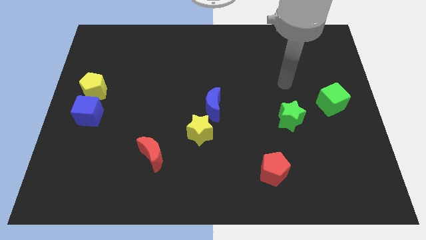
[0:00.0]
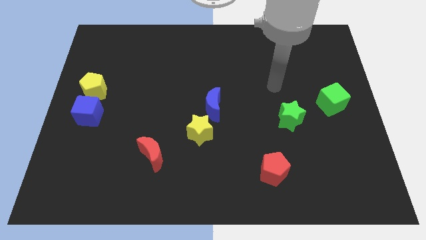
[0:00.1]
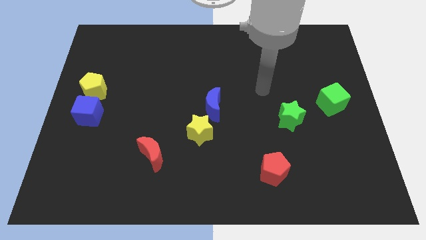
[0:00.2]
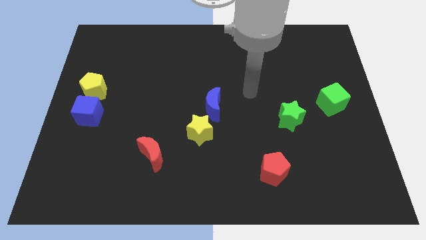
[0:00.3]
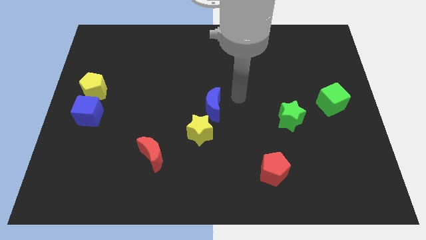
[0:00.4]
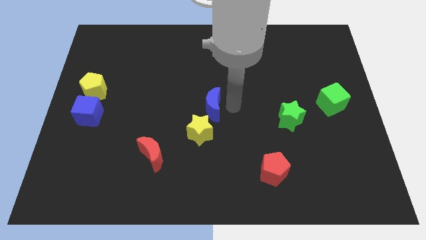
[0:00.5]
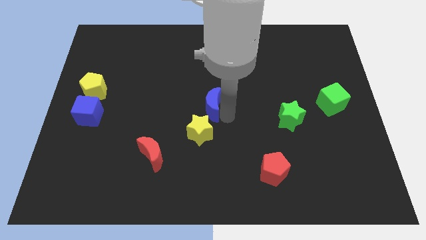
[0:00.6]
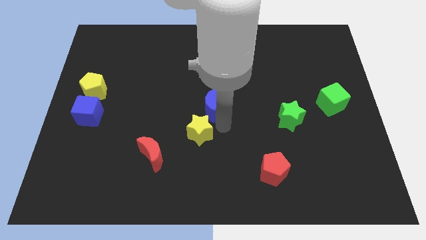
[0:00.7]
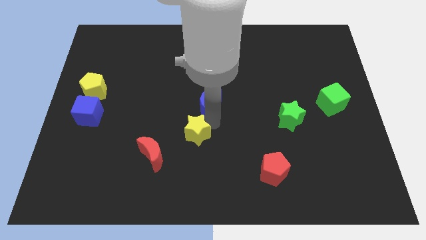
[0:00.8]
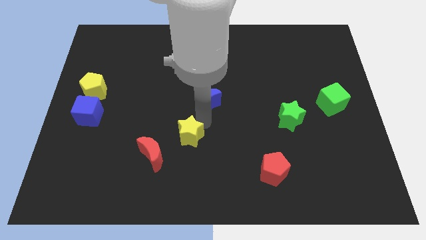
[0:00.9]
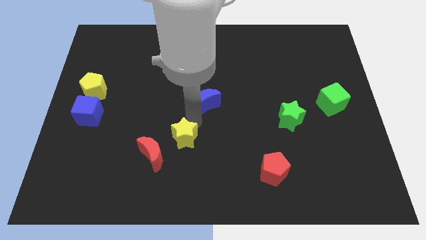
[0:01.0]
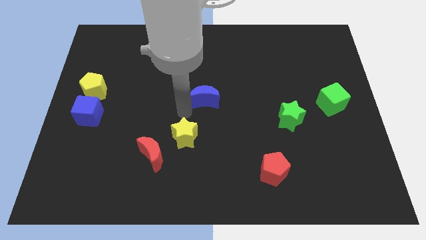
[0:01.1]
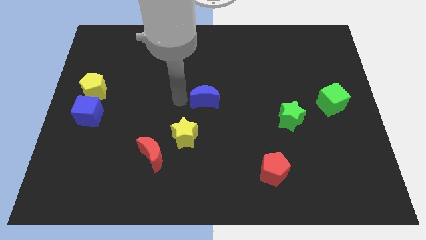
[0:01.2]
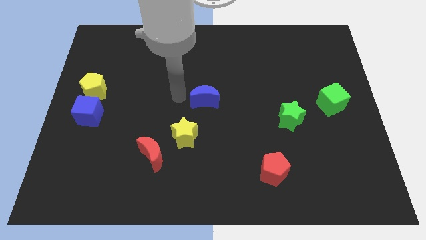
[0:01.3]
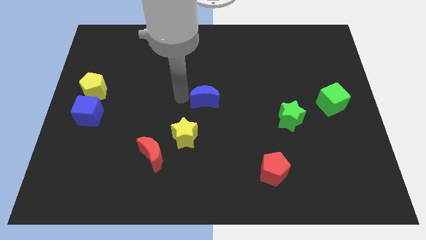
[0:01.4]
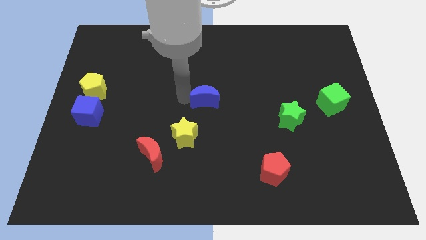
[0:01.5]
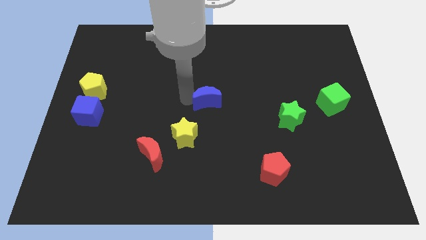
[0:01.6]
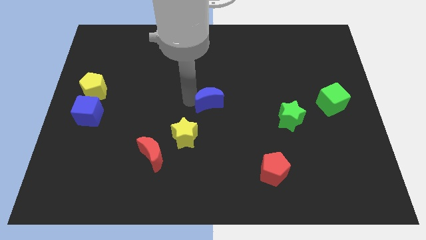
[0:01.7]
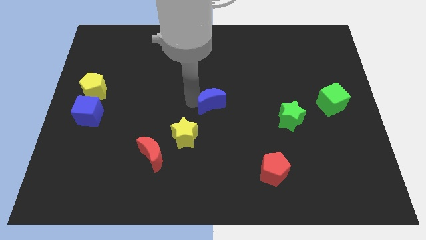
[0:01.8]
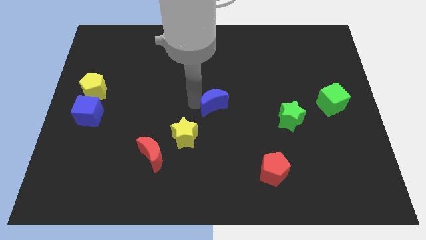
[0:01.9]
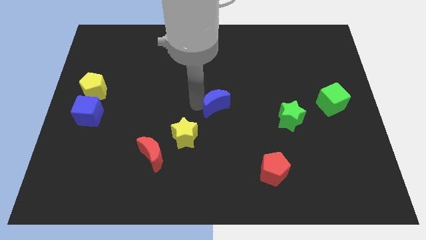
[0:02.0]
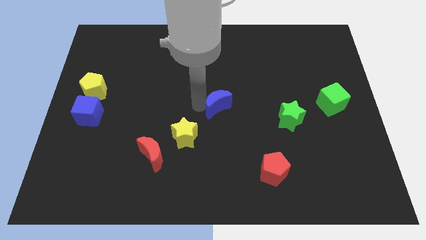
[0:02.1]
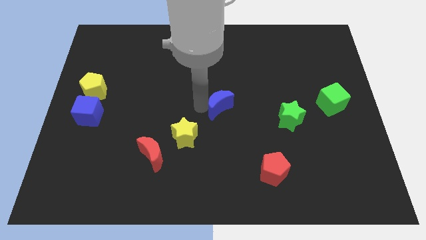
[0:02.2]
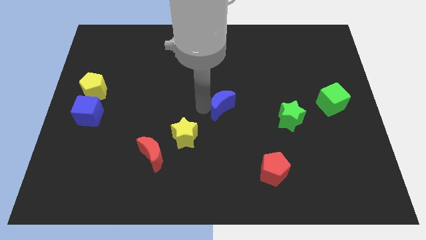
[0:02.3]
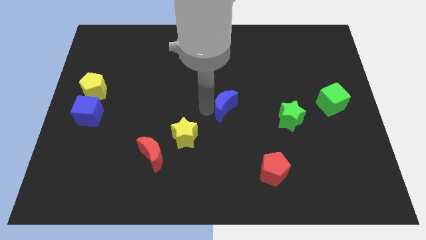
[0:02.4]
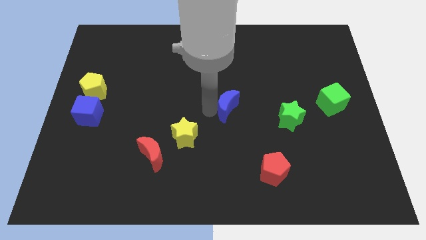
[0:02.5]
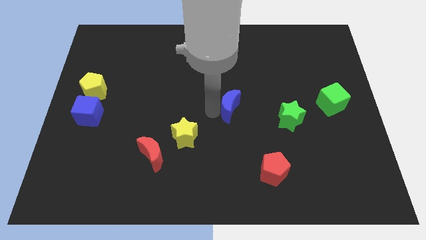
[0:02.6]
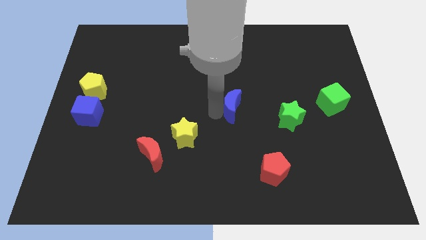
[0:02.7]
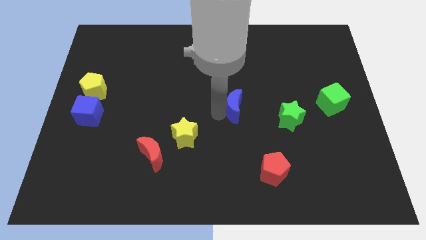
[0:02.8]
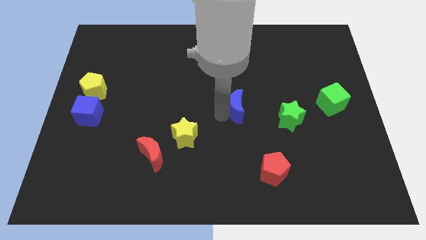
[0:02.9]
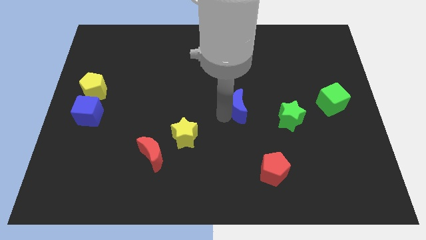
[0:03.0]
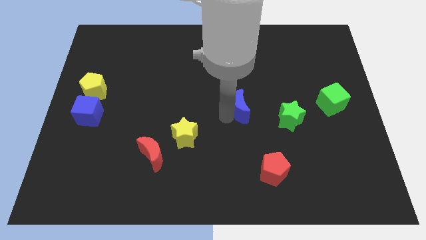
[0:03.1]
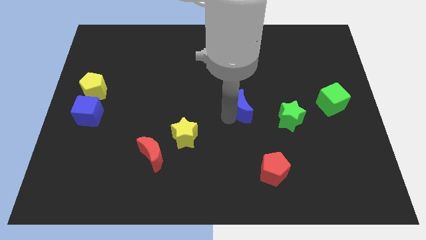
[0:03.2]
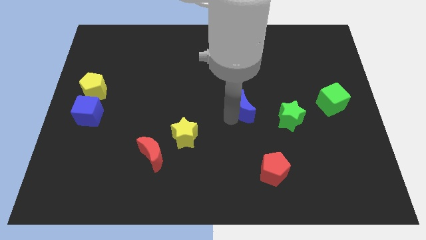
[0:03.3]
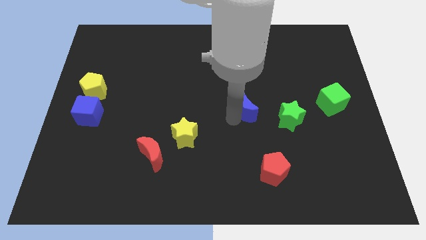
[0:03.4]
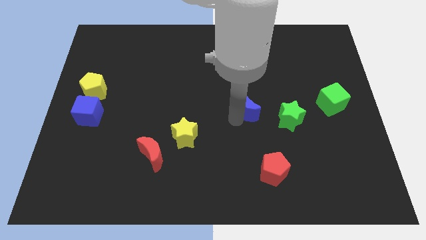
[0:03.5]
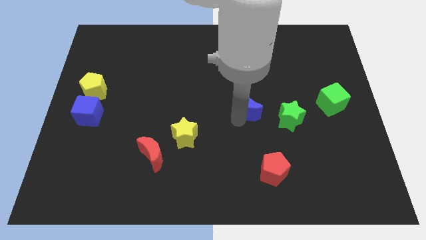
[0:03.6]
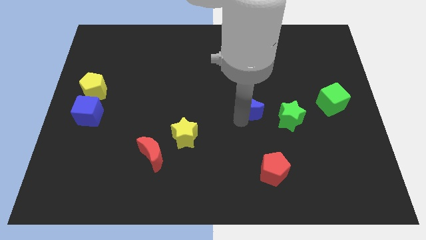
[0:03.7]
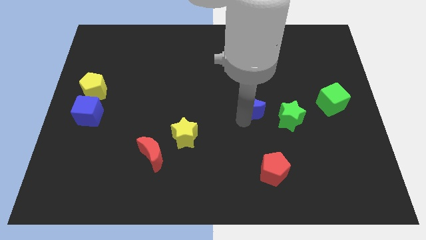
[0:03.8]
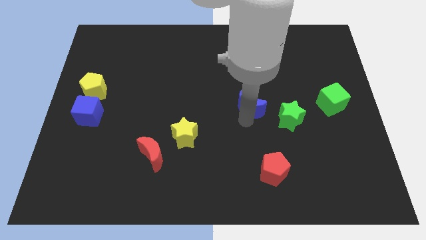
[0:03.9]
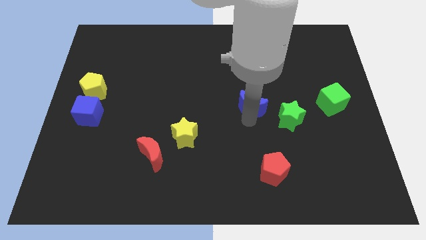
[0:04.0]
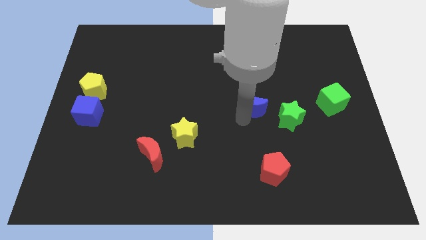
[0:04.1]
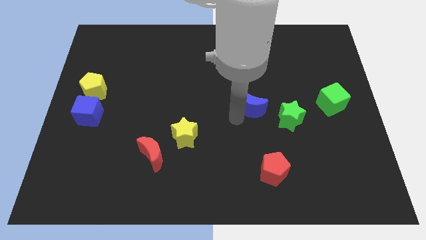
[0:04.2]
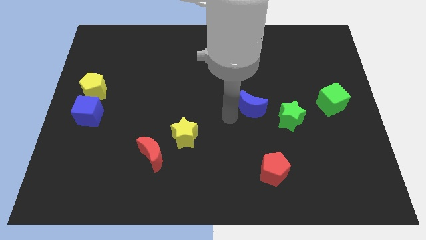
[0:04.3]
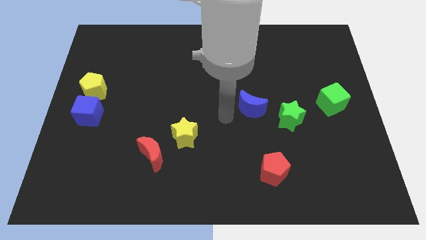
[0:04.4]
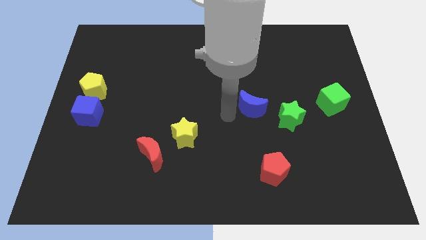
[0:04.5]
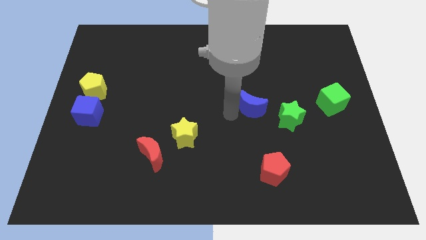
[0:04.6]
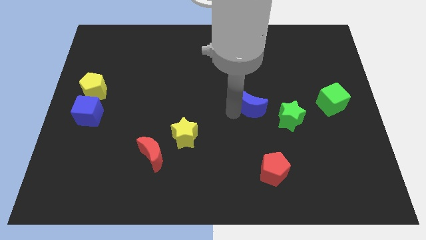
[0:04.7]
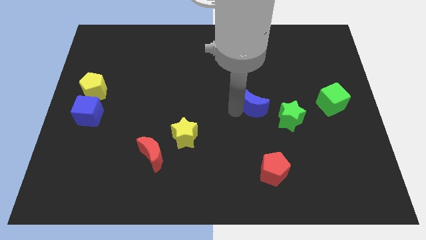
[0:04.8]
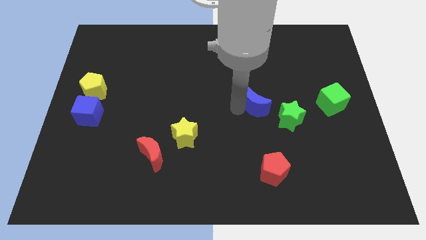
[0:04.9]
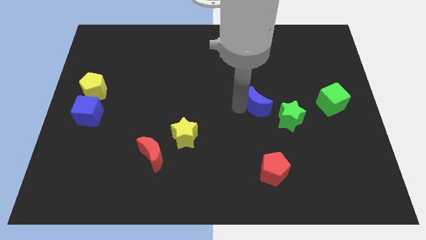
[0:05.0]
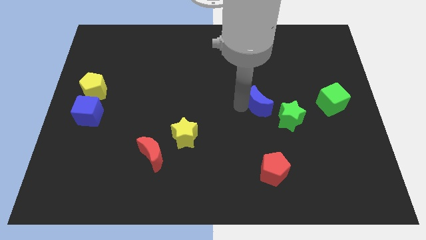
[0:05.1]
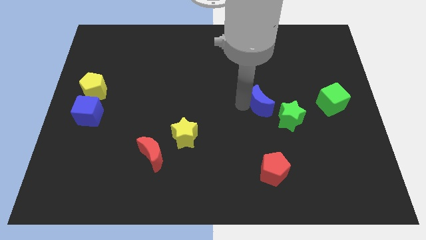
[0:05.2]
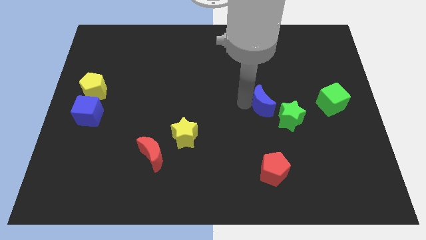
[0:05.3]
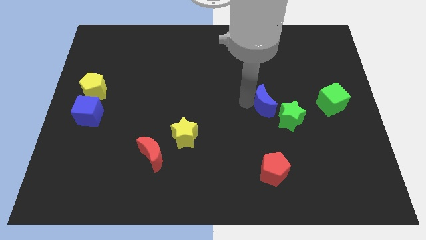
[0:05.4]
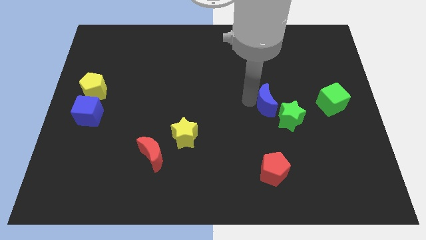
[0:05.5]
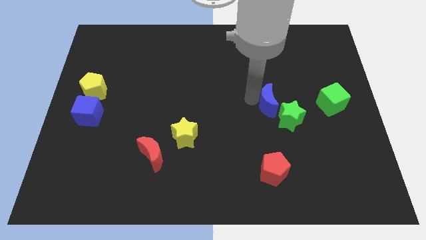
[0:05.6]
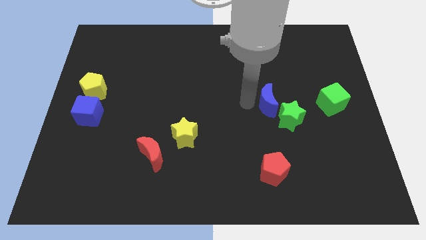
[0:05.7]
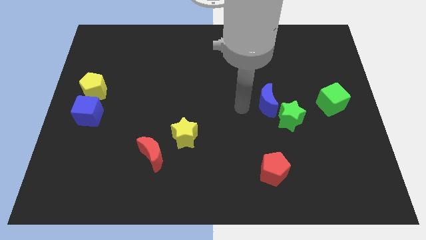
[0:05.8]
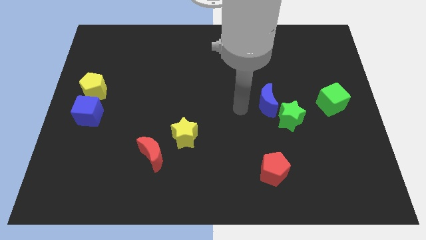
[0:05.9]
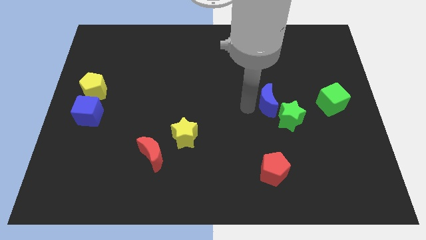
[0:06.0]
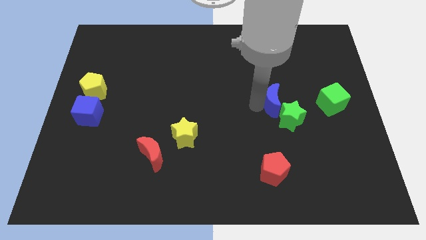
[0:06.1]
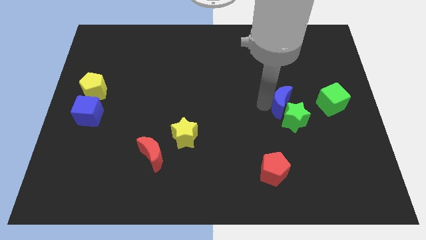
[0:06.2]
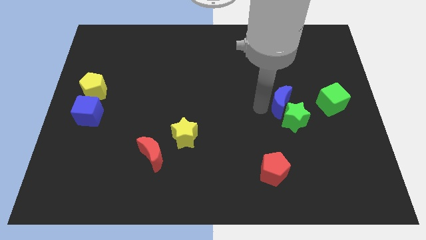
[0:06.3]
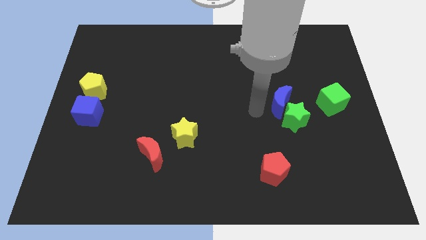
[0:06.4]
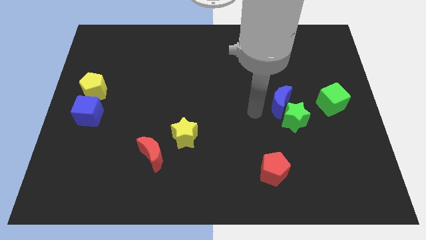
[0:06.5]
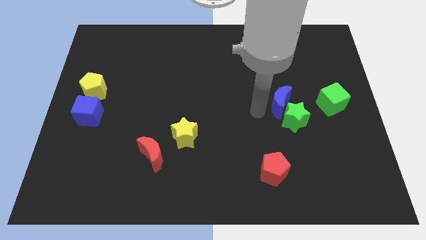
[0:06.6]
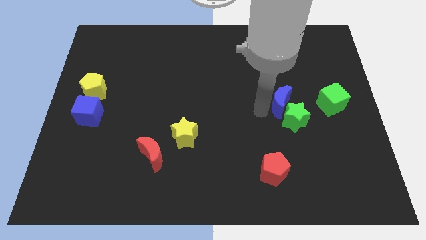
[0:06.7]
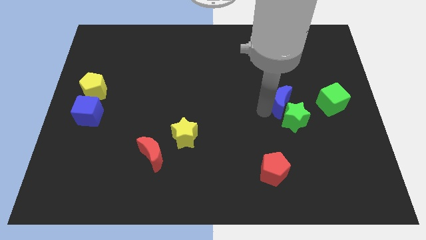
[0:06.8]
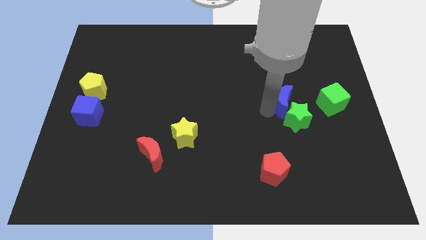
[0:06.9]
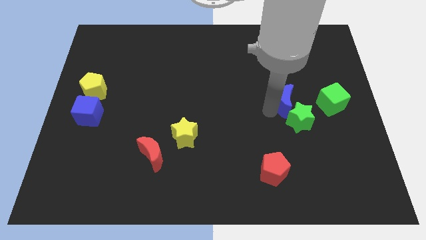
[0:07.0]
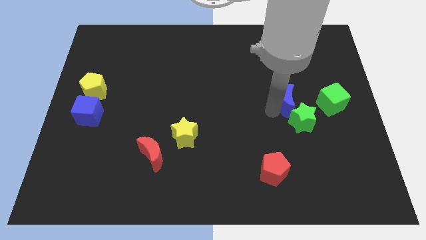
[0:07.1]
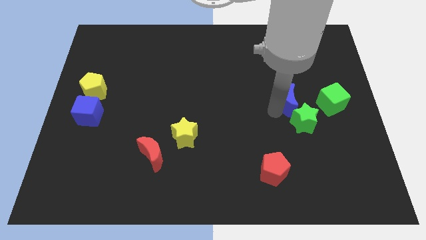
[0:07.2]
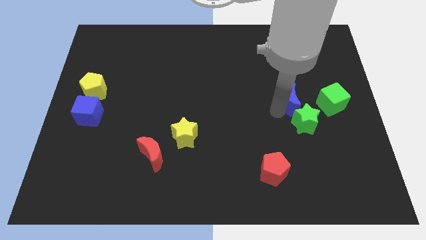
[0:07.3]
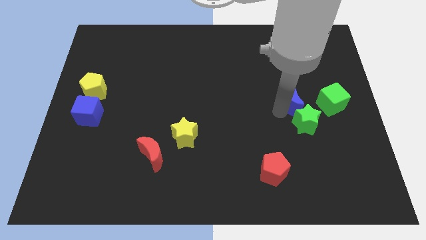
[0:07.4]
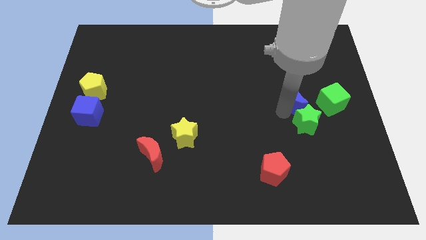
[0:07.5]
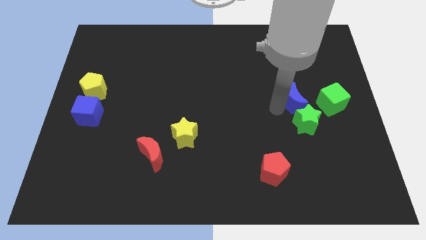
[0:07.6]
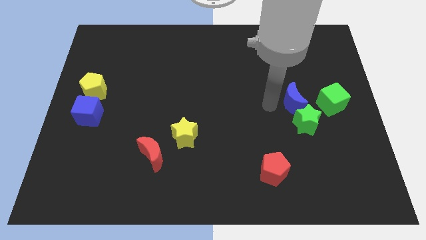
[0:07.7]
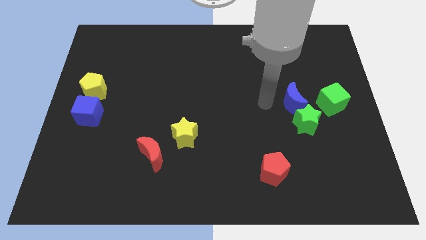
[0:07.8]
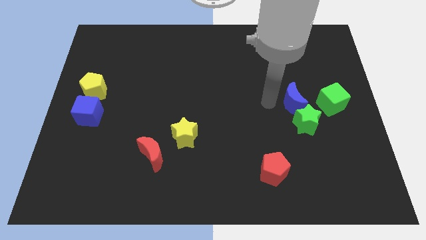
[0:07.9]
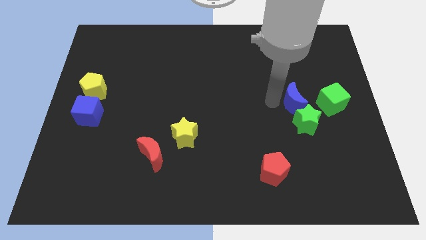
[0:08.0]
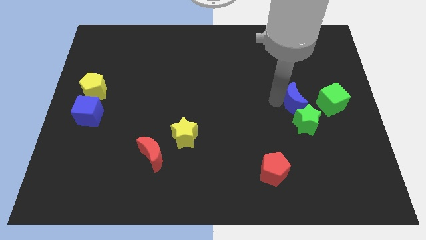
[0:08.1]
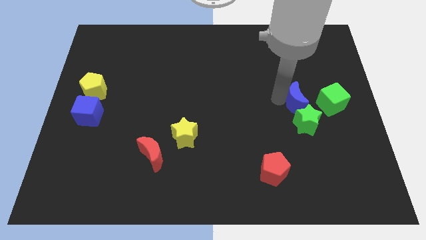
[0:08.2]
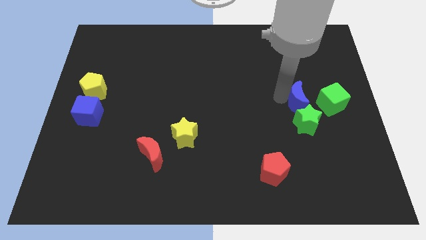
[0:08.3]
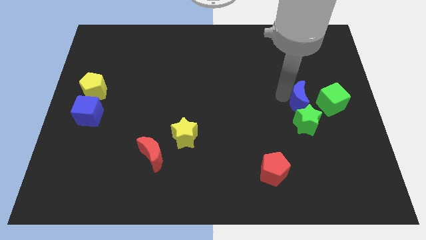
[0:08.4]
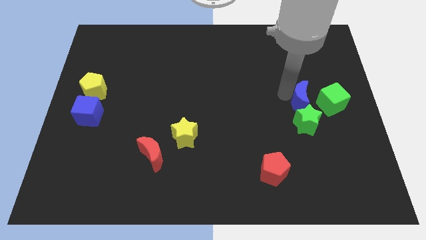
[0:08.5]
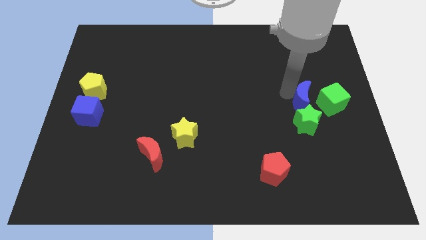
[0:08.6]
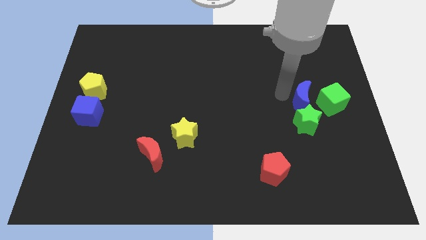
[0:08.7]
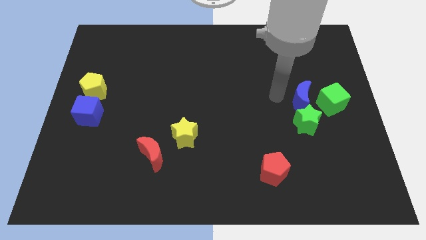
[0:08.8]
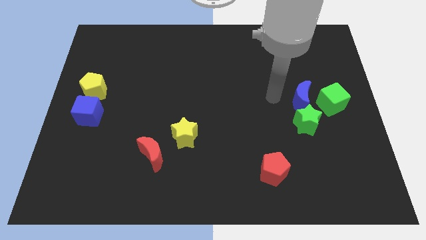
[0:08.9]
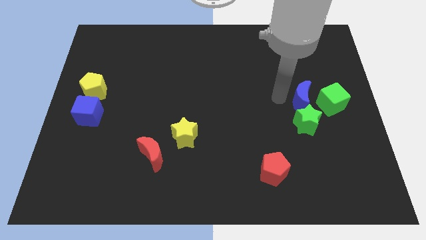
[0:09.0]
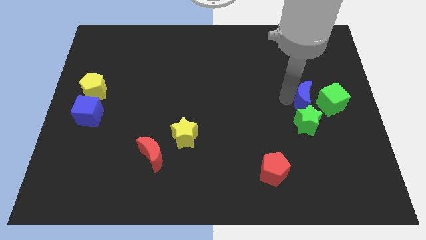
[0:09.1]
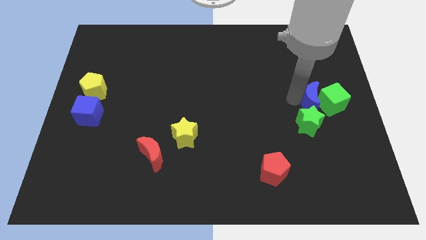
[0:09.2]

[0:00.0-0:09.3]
push the blue moon to the green cube
